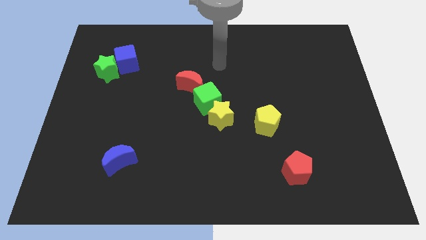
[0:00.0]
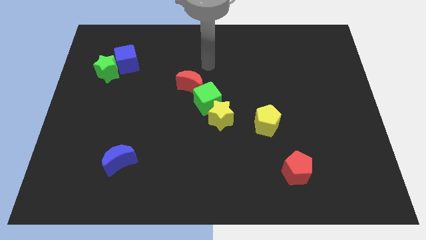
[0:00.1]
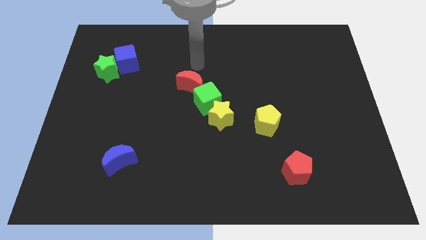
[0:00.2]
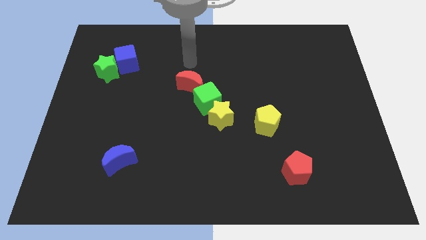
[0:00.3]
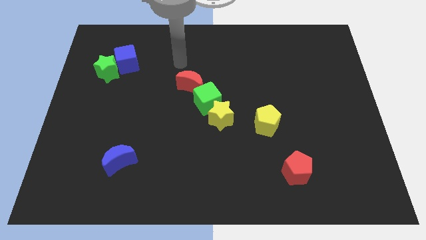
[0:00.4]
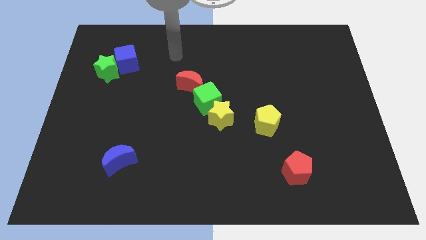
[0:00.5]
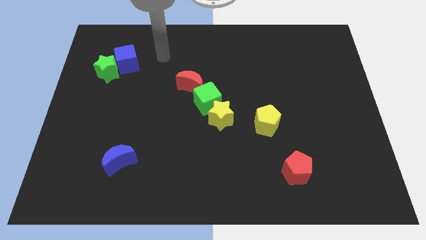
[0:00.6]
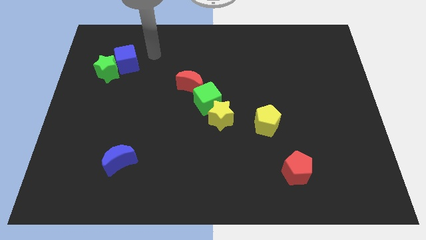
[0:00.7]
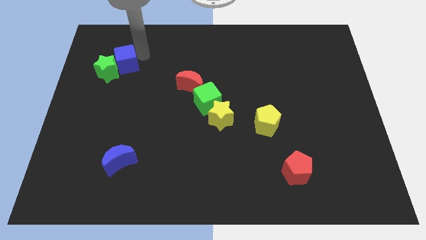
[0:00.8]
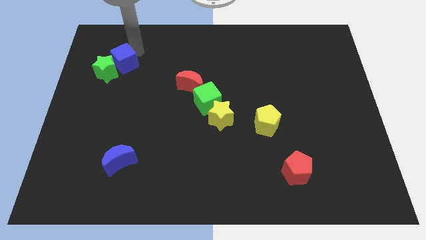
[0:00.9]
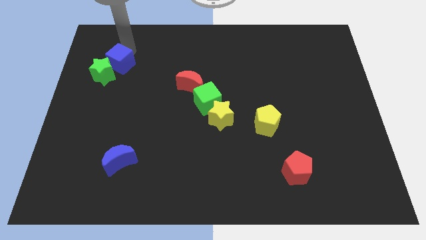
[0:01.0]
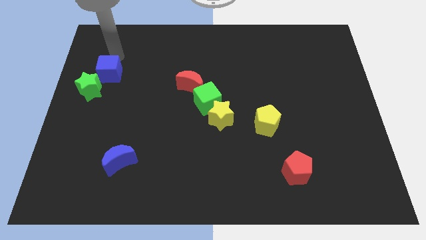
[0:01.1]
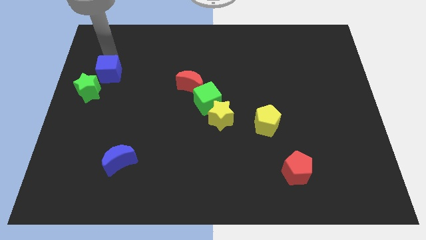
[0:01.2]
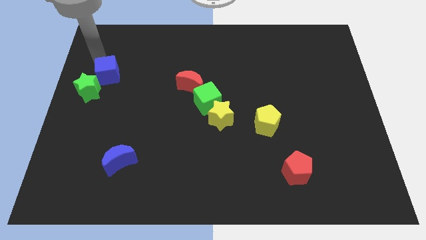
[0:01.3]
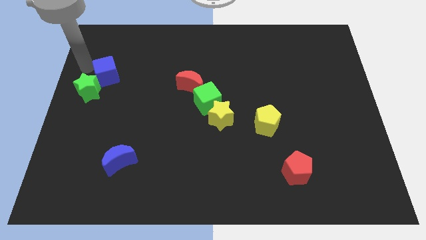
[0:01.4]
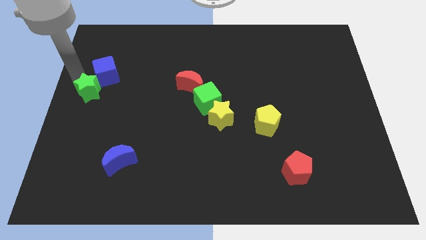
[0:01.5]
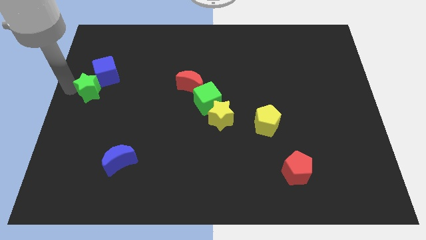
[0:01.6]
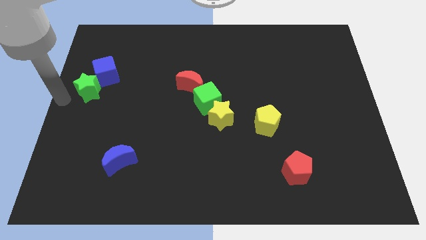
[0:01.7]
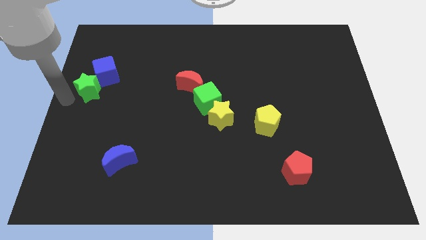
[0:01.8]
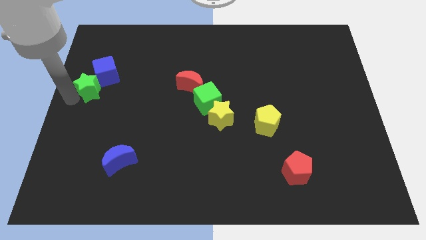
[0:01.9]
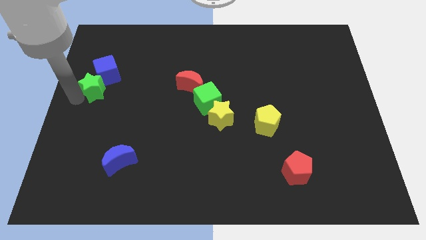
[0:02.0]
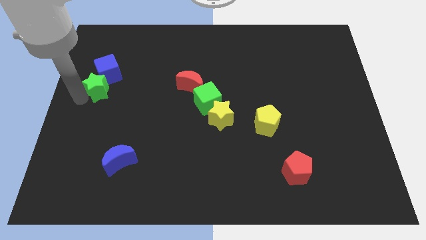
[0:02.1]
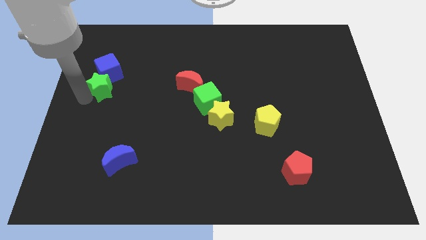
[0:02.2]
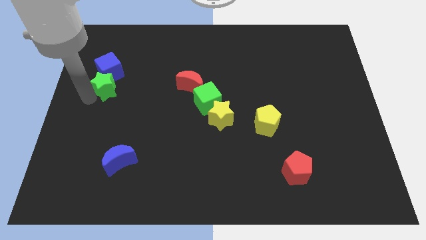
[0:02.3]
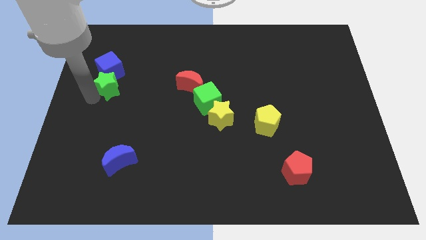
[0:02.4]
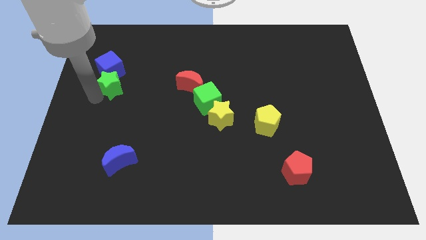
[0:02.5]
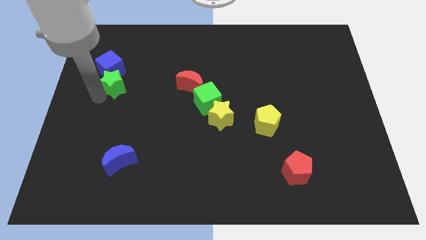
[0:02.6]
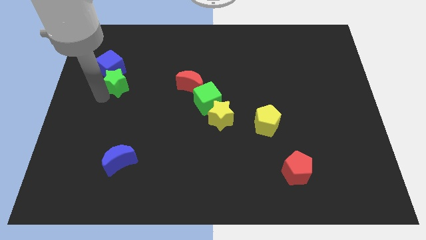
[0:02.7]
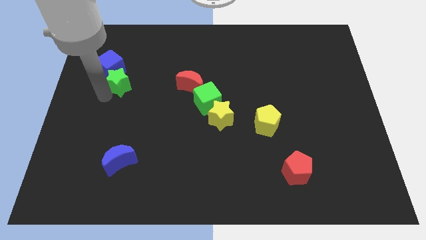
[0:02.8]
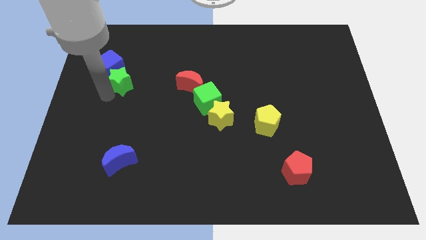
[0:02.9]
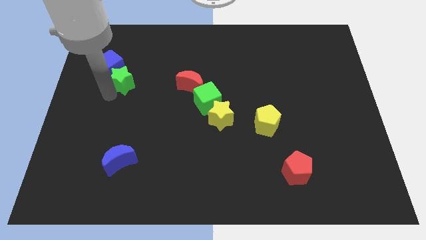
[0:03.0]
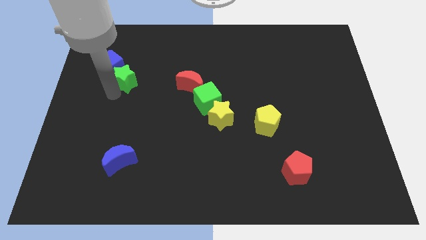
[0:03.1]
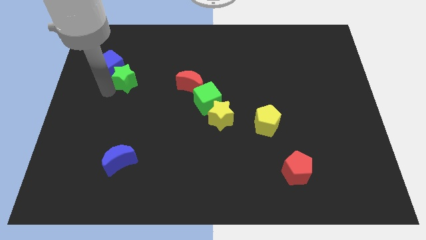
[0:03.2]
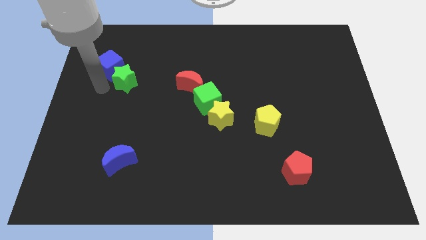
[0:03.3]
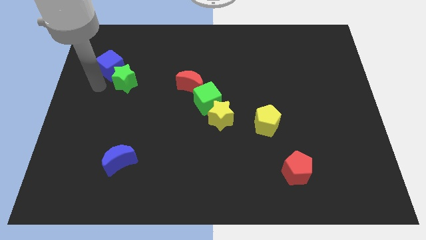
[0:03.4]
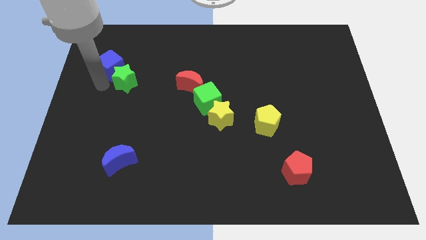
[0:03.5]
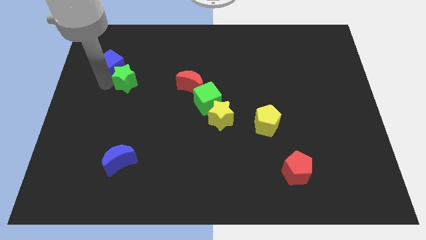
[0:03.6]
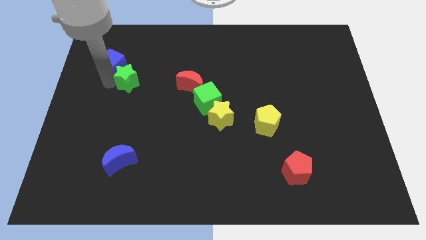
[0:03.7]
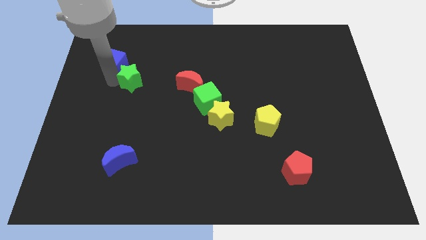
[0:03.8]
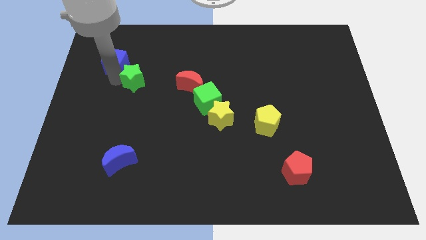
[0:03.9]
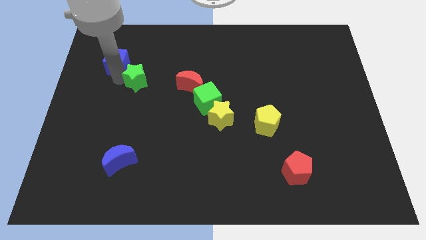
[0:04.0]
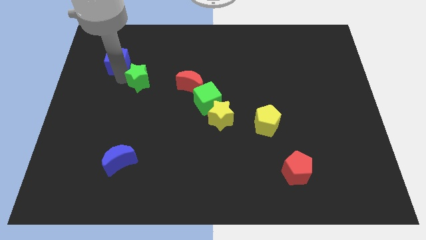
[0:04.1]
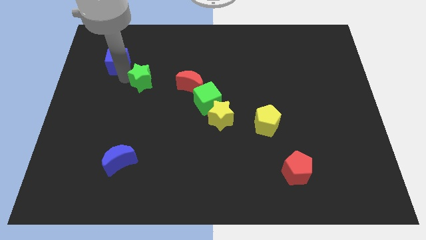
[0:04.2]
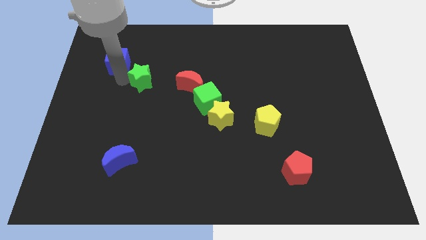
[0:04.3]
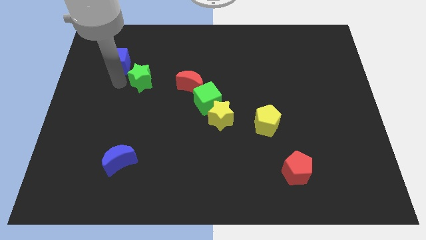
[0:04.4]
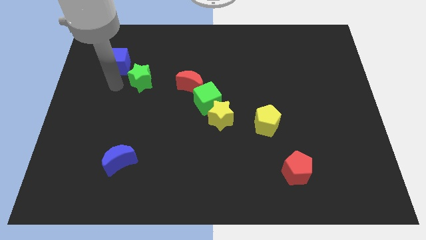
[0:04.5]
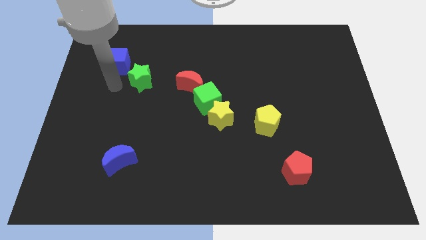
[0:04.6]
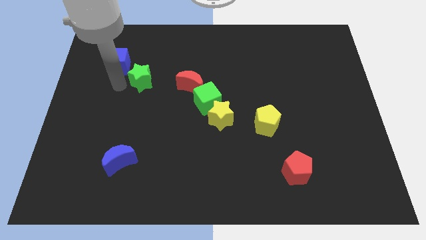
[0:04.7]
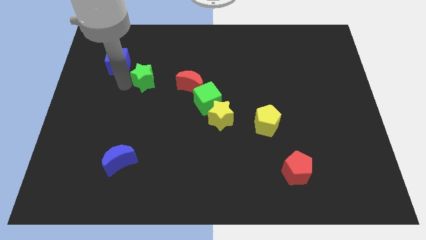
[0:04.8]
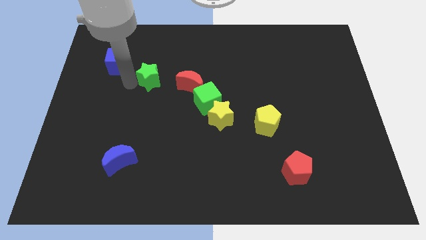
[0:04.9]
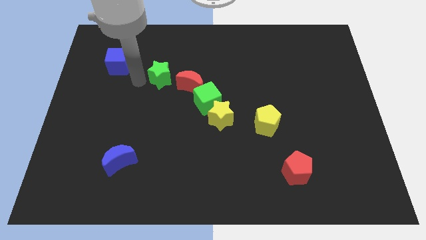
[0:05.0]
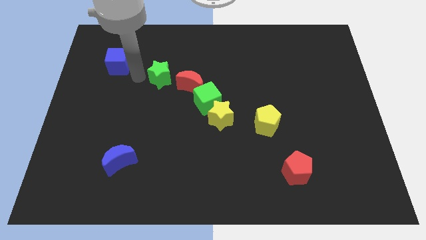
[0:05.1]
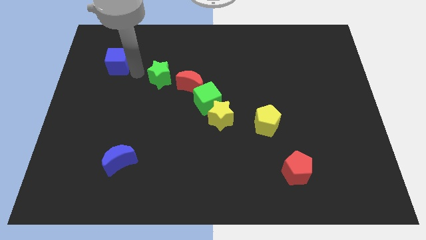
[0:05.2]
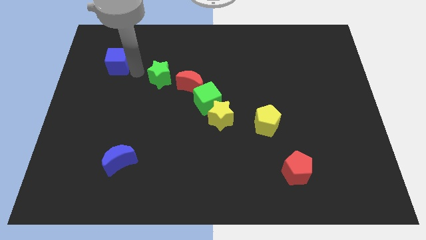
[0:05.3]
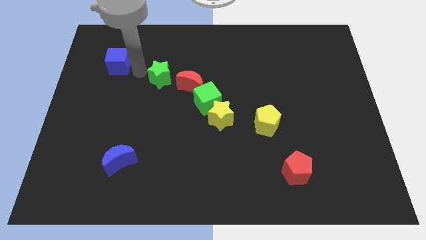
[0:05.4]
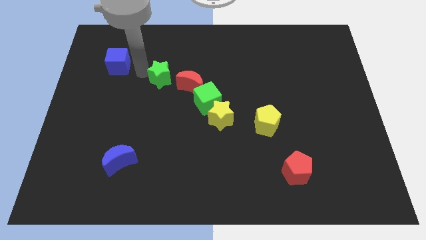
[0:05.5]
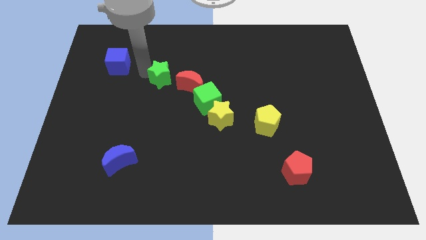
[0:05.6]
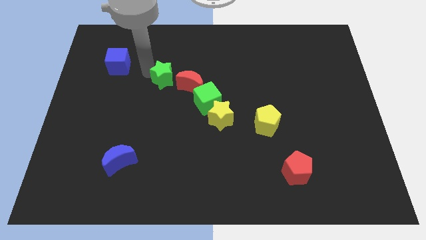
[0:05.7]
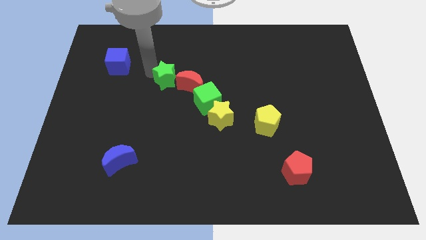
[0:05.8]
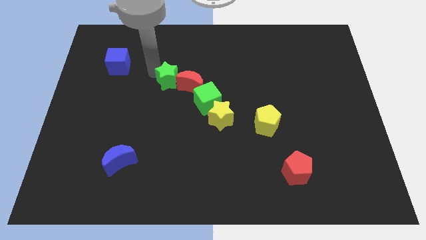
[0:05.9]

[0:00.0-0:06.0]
move the green star diagonally up and to the left of the green cube

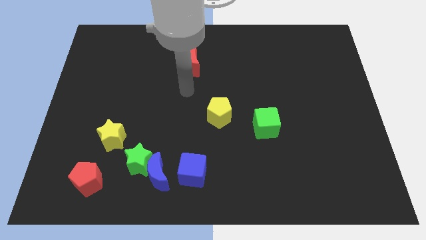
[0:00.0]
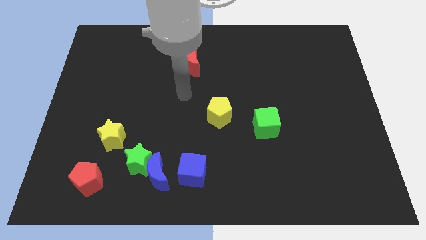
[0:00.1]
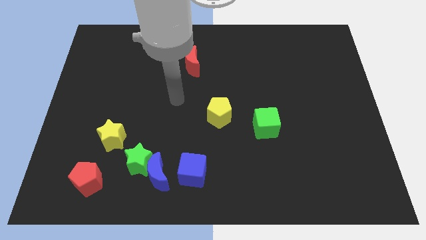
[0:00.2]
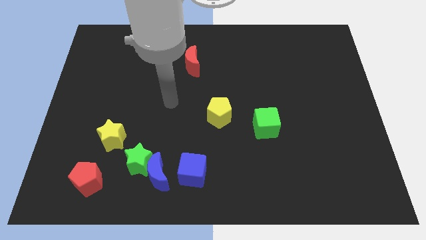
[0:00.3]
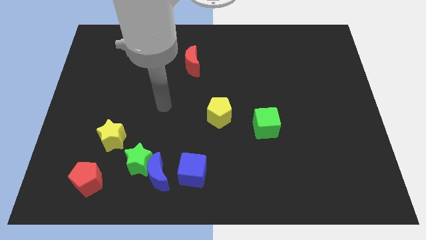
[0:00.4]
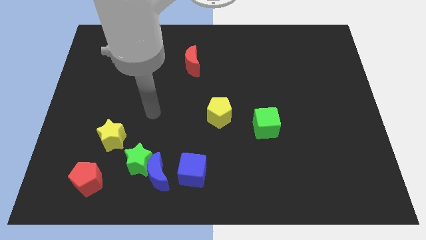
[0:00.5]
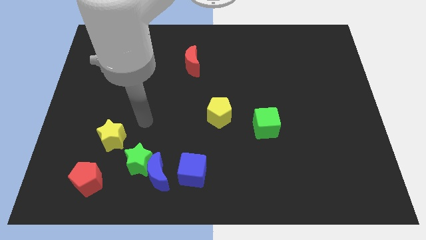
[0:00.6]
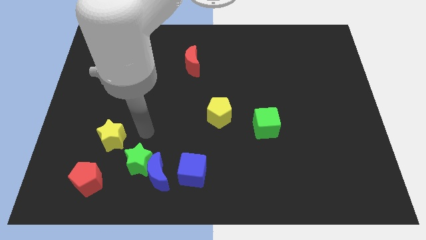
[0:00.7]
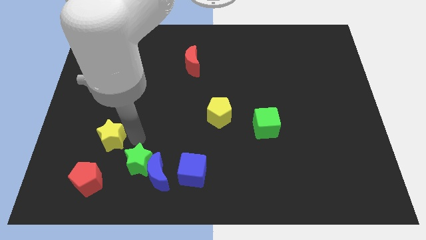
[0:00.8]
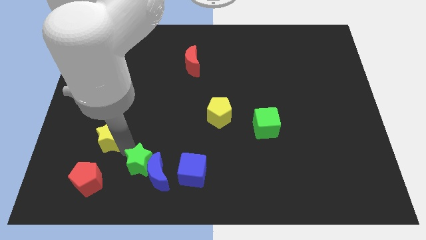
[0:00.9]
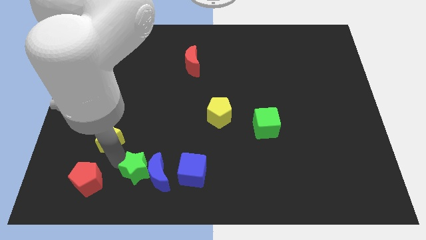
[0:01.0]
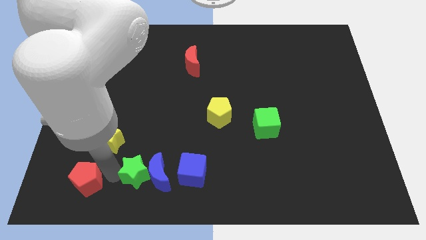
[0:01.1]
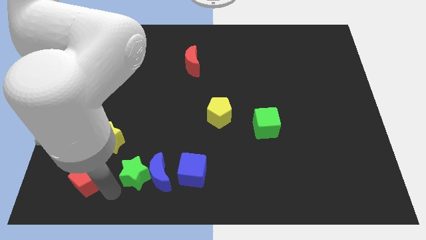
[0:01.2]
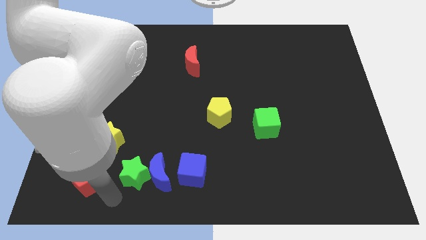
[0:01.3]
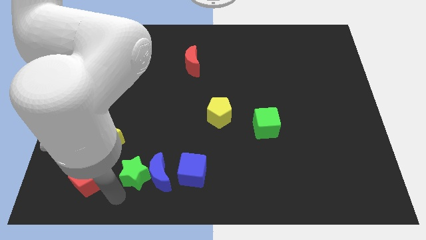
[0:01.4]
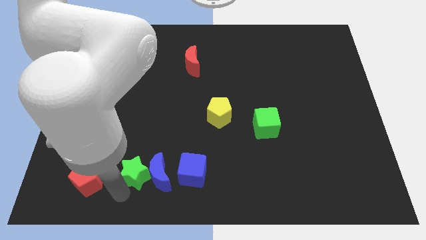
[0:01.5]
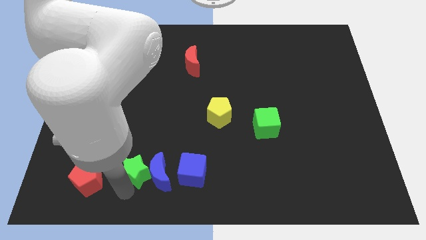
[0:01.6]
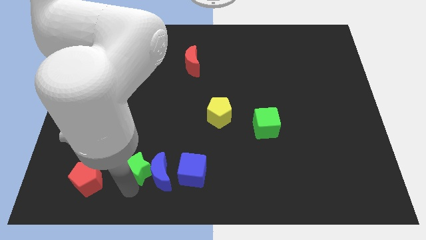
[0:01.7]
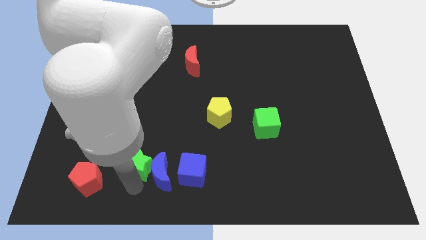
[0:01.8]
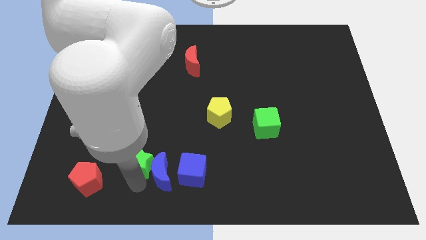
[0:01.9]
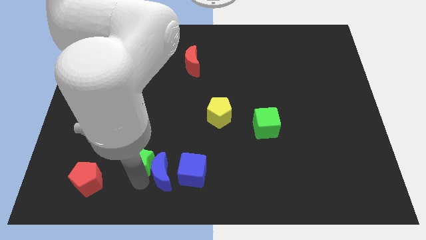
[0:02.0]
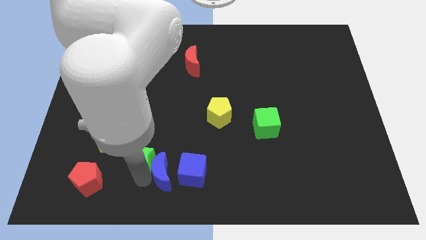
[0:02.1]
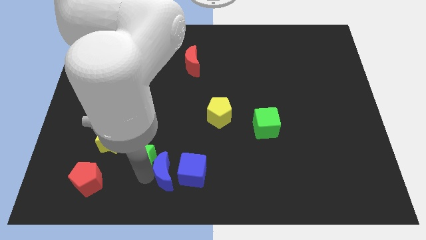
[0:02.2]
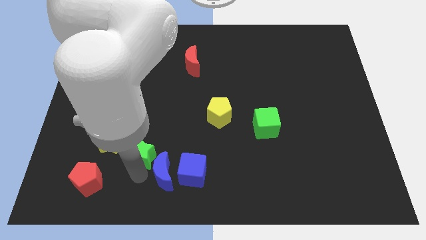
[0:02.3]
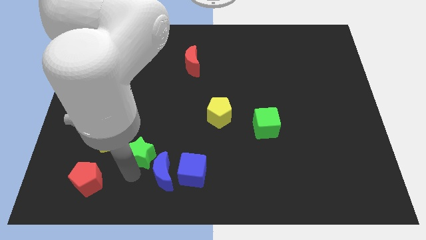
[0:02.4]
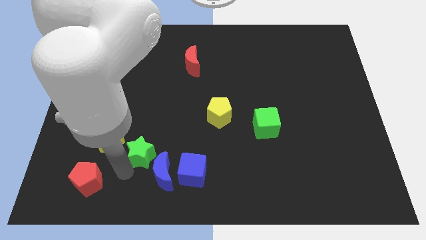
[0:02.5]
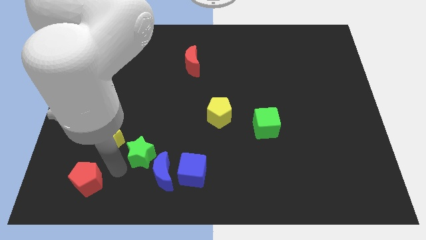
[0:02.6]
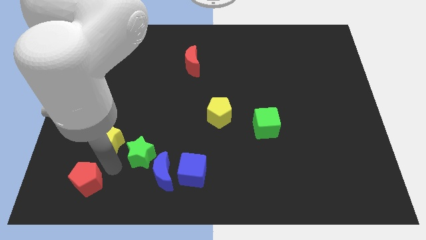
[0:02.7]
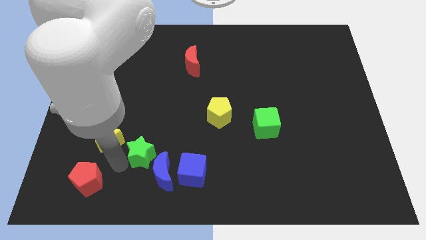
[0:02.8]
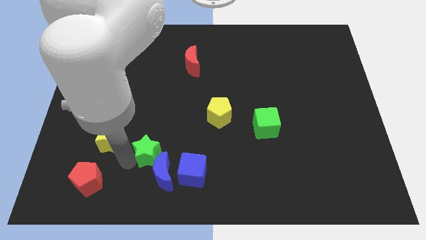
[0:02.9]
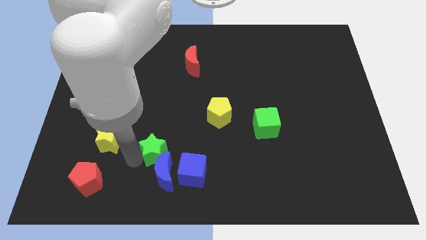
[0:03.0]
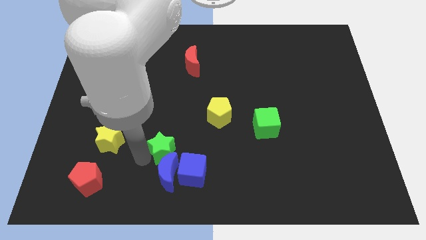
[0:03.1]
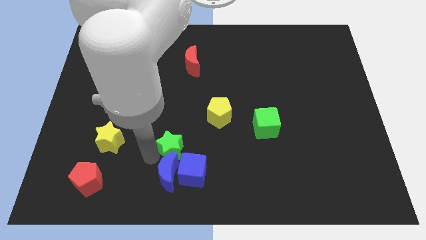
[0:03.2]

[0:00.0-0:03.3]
slide the green star to the top of the blue cube
